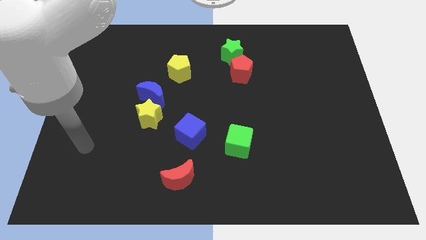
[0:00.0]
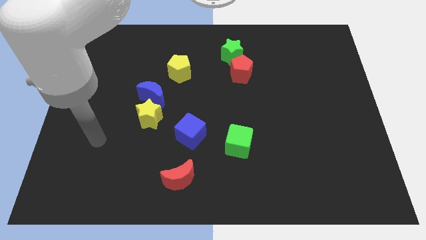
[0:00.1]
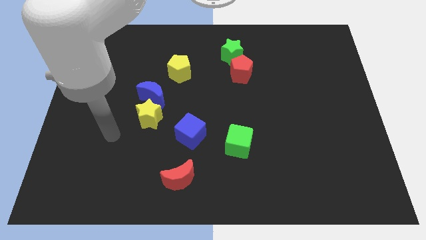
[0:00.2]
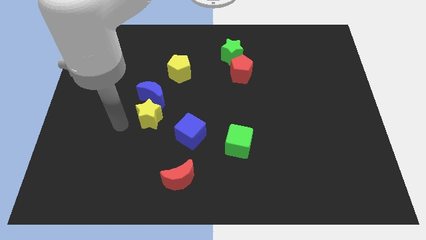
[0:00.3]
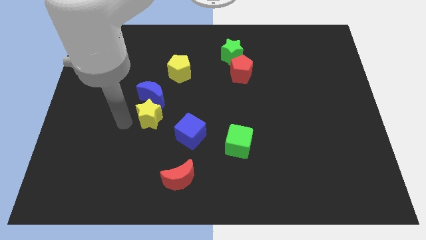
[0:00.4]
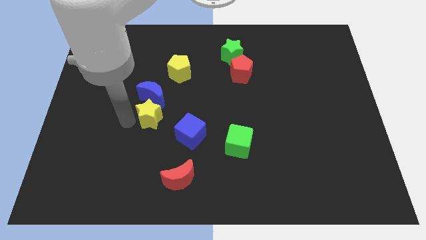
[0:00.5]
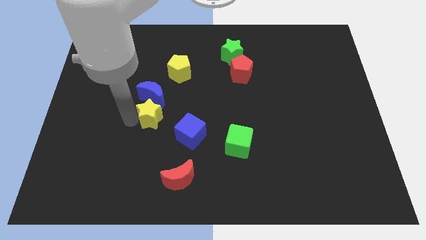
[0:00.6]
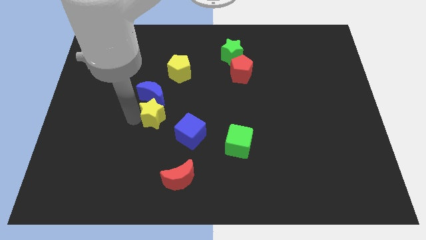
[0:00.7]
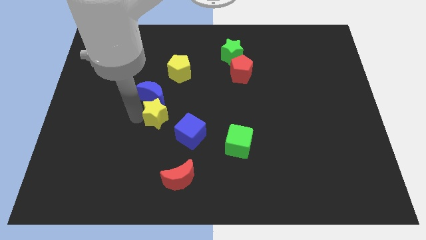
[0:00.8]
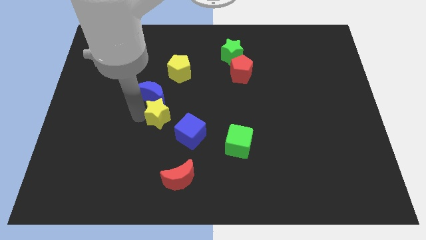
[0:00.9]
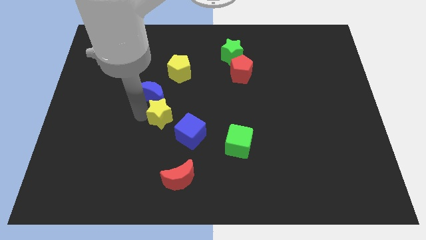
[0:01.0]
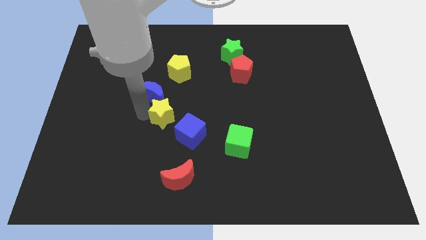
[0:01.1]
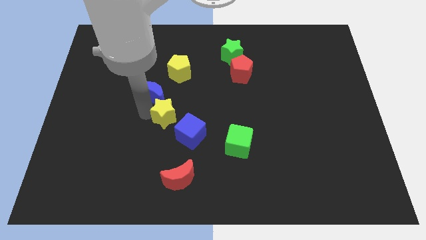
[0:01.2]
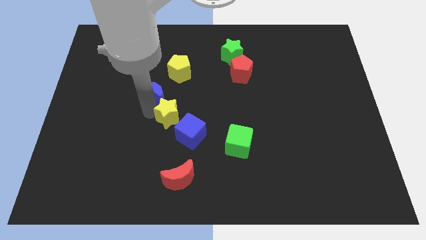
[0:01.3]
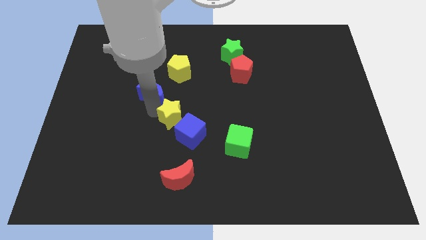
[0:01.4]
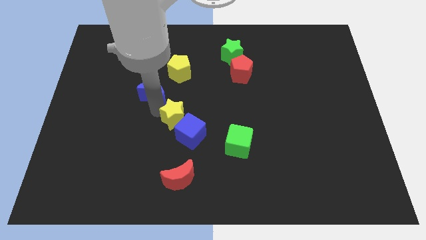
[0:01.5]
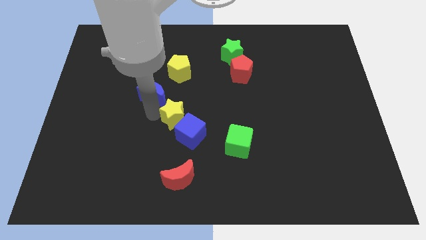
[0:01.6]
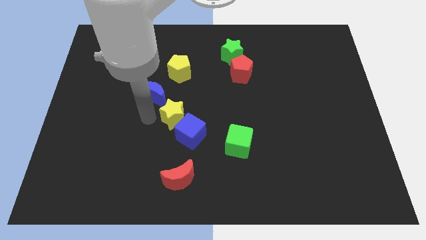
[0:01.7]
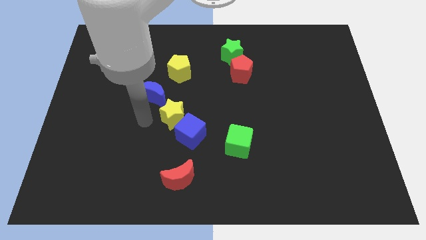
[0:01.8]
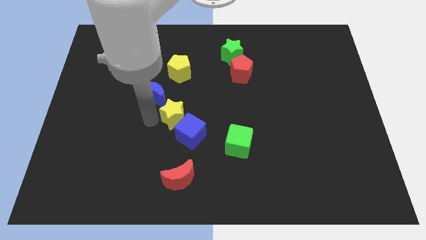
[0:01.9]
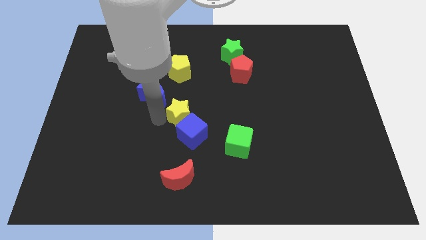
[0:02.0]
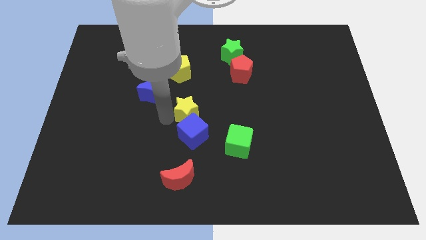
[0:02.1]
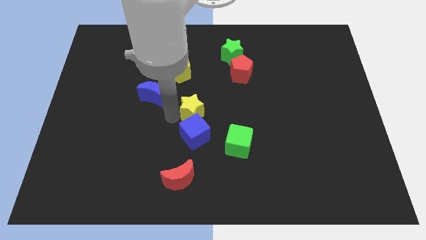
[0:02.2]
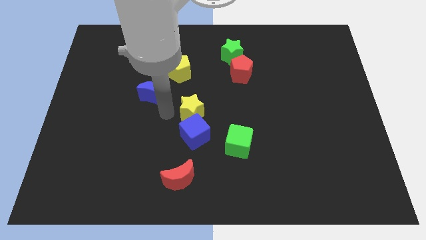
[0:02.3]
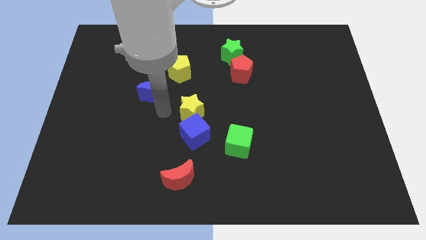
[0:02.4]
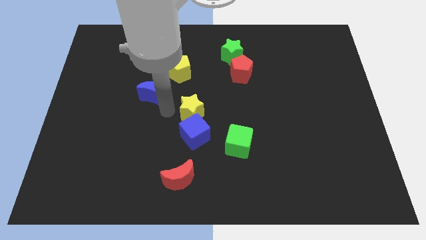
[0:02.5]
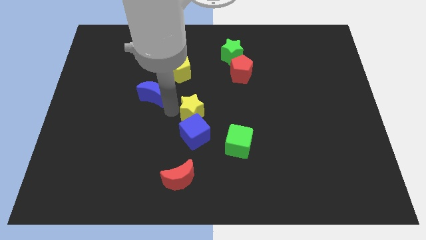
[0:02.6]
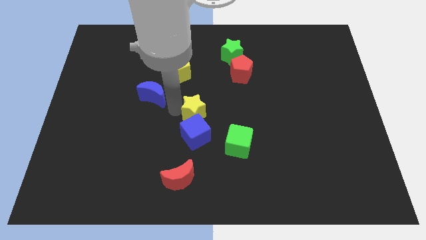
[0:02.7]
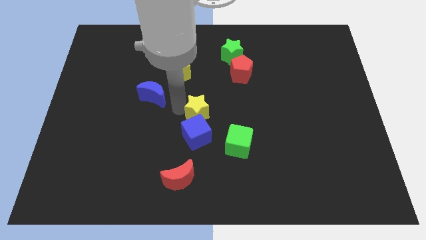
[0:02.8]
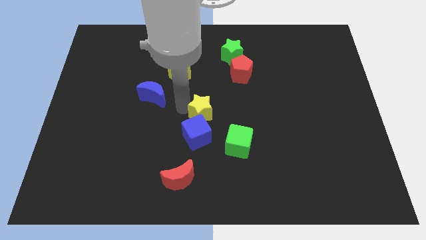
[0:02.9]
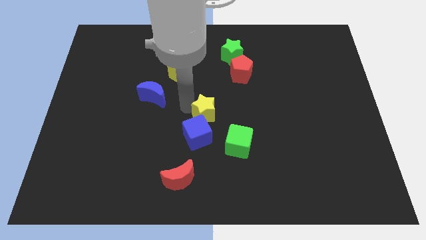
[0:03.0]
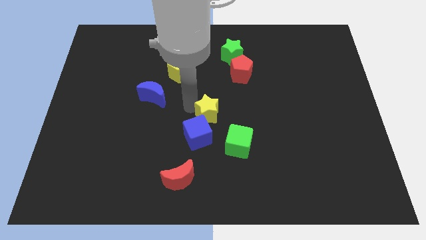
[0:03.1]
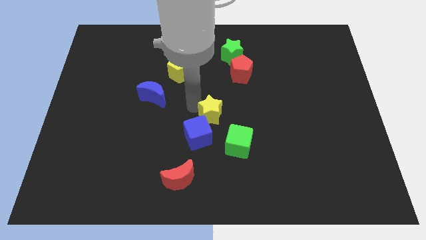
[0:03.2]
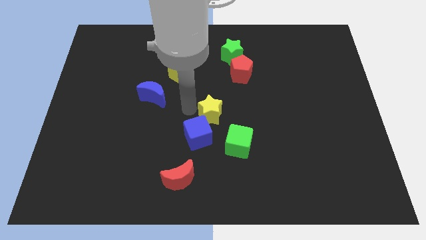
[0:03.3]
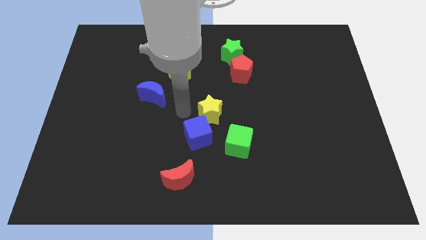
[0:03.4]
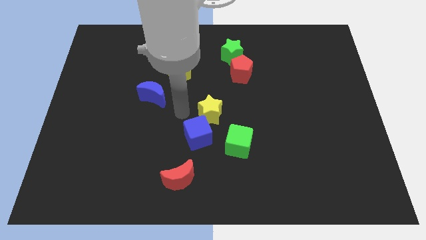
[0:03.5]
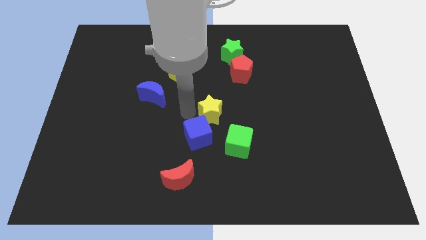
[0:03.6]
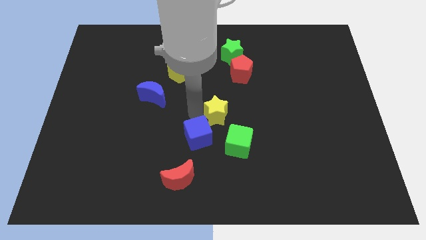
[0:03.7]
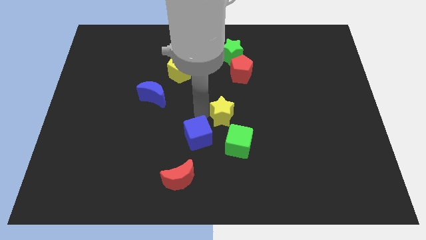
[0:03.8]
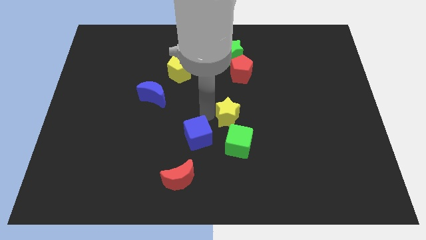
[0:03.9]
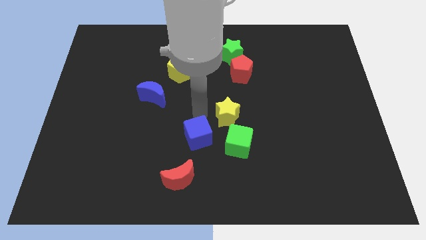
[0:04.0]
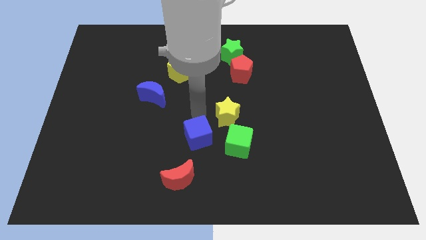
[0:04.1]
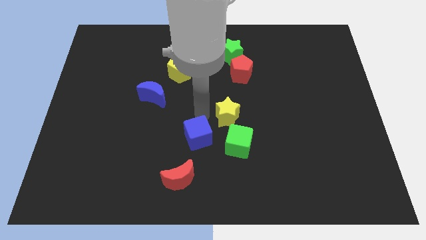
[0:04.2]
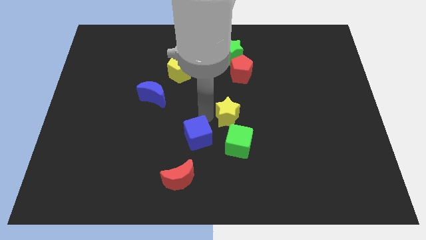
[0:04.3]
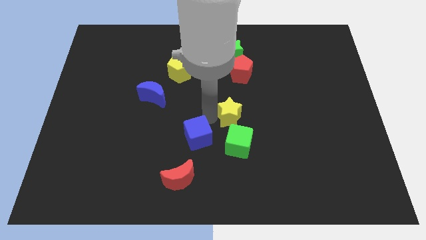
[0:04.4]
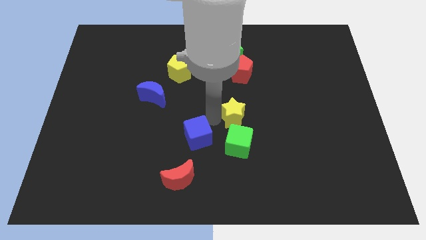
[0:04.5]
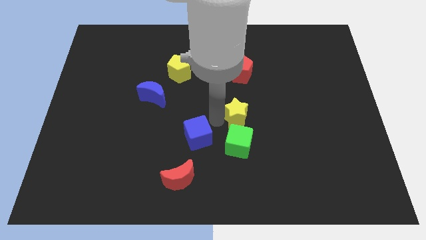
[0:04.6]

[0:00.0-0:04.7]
slide the yellow star to the right

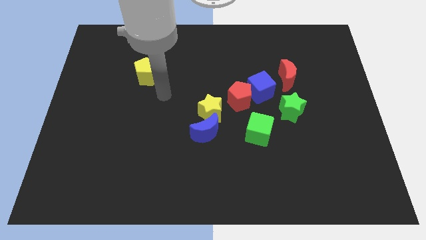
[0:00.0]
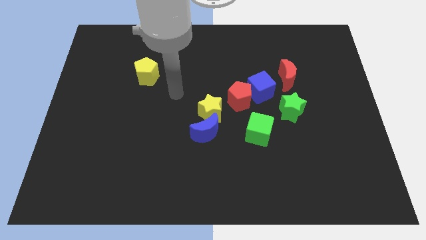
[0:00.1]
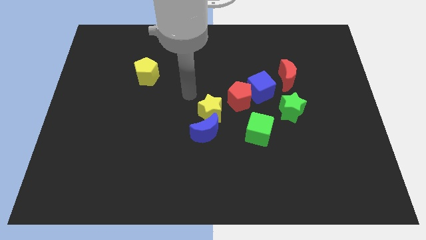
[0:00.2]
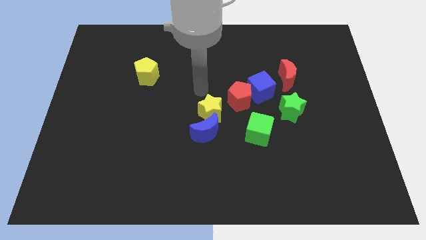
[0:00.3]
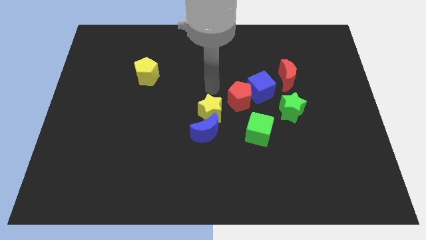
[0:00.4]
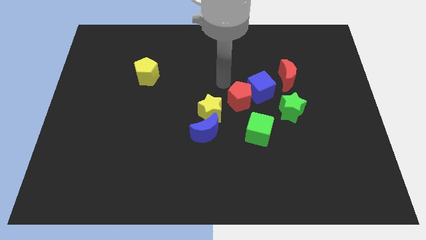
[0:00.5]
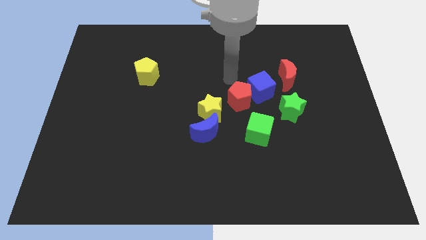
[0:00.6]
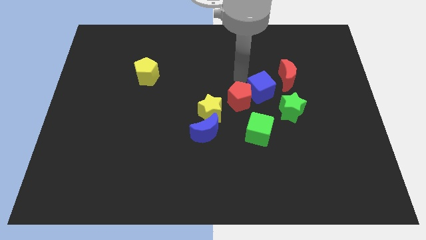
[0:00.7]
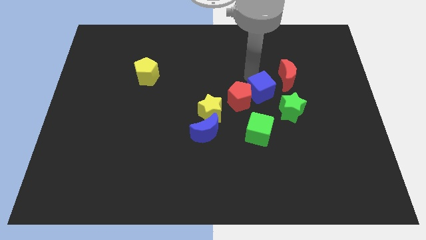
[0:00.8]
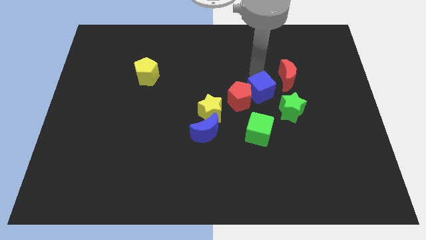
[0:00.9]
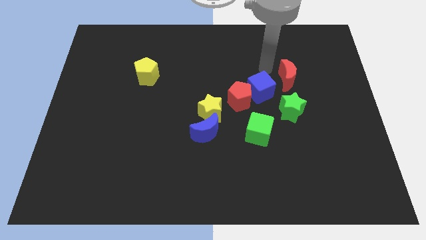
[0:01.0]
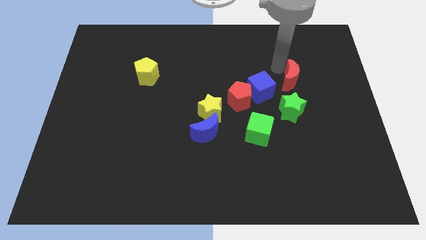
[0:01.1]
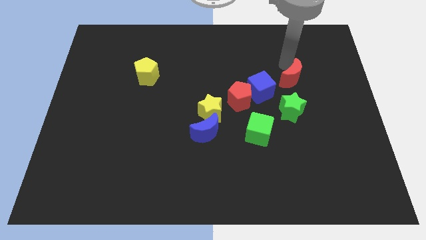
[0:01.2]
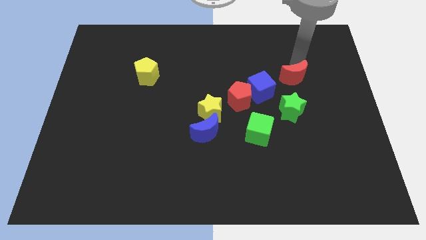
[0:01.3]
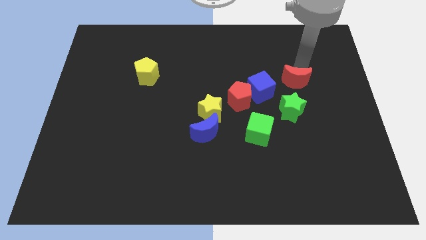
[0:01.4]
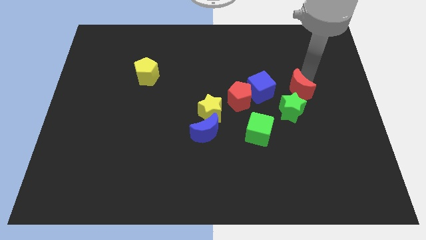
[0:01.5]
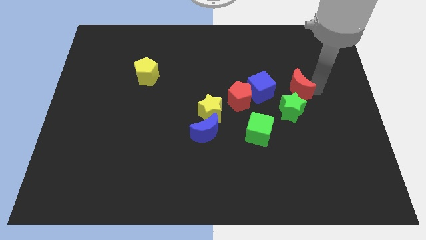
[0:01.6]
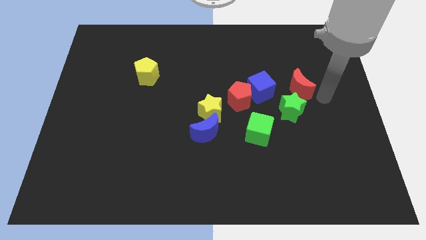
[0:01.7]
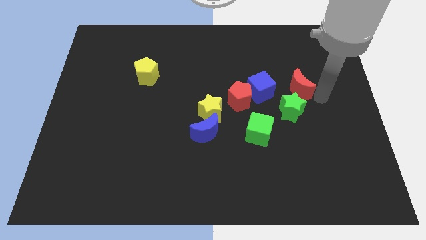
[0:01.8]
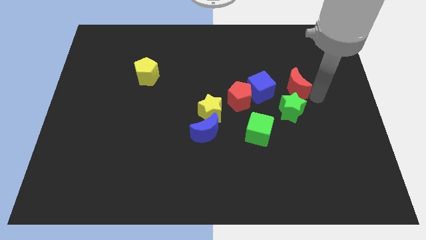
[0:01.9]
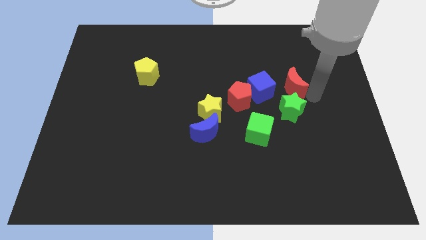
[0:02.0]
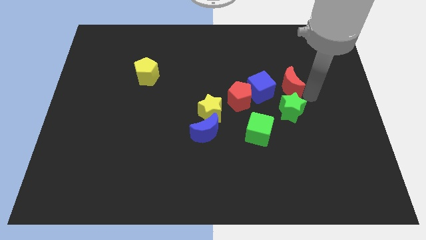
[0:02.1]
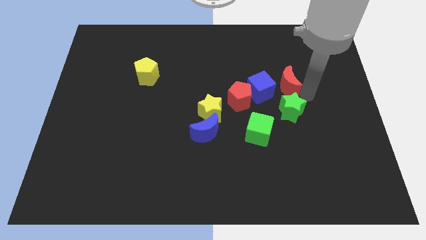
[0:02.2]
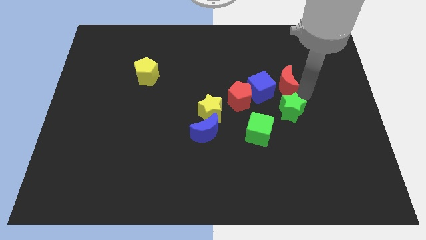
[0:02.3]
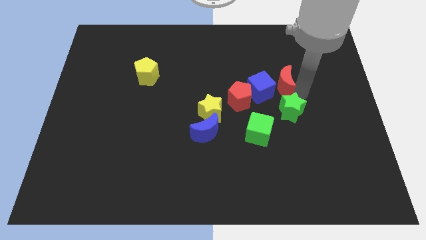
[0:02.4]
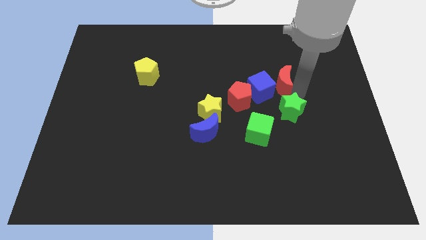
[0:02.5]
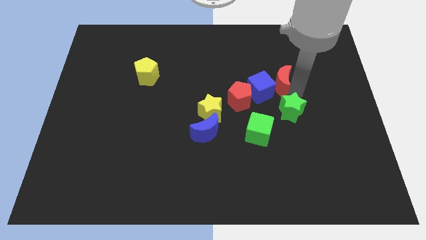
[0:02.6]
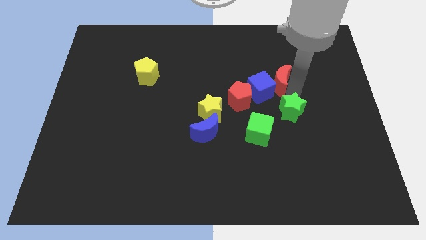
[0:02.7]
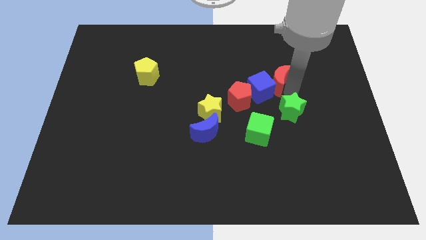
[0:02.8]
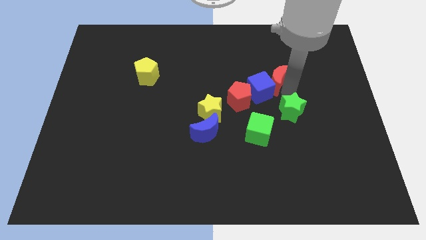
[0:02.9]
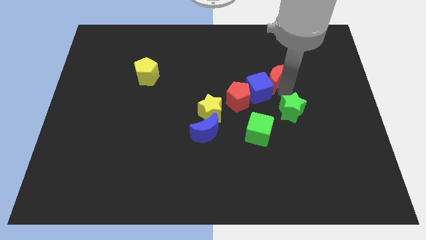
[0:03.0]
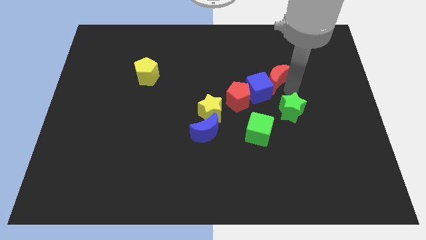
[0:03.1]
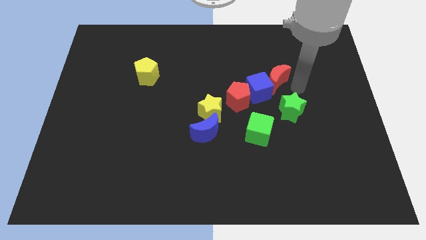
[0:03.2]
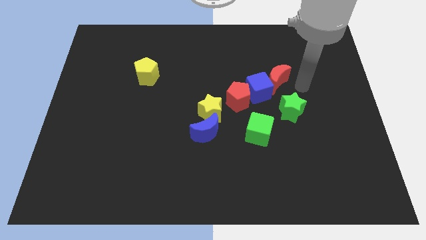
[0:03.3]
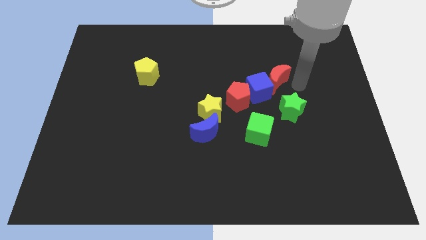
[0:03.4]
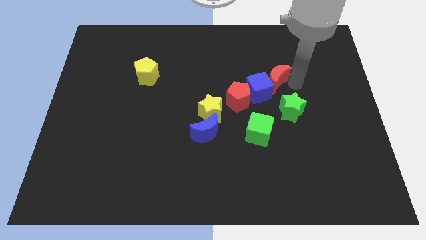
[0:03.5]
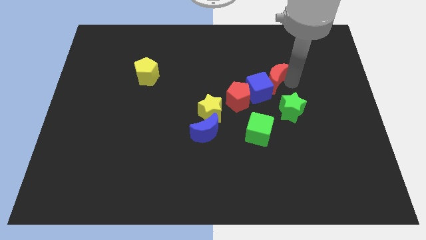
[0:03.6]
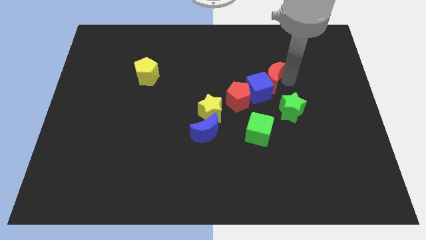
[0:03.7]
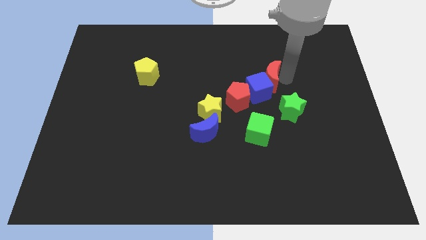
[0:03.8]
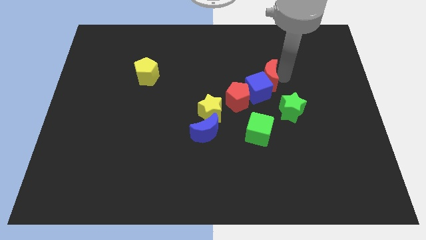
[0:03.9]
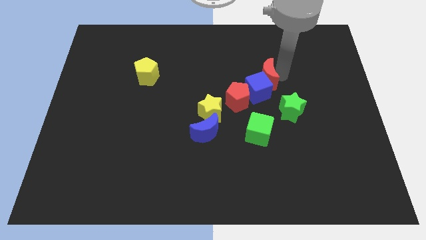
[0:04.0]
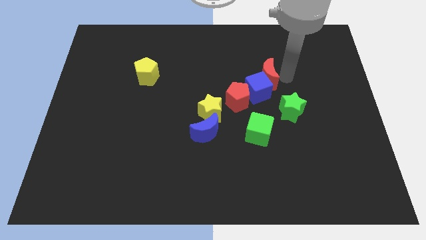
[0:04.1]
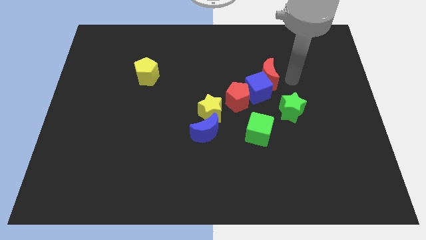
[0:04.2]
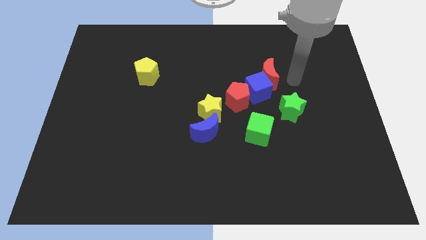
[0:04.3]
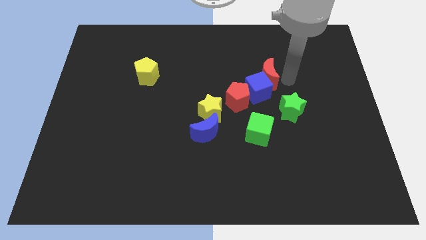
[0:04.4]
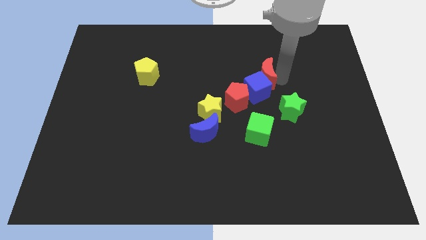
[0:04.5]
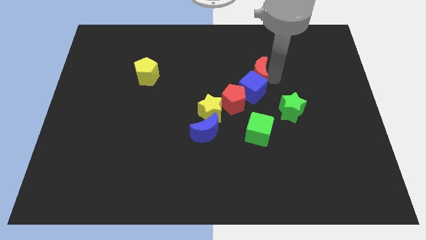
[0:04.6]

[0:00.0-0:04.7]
push the red moon a little bit left
